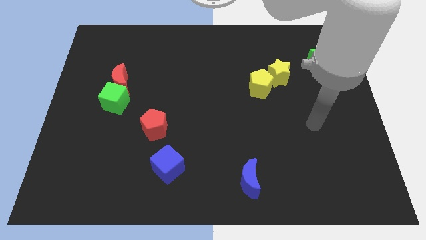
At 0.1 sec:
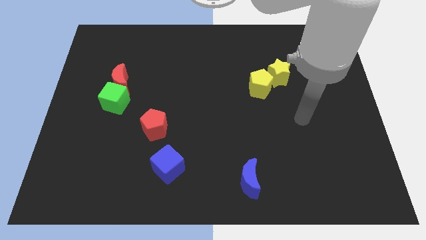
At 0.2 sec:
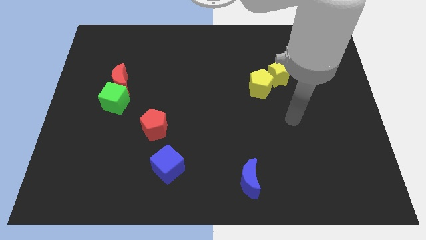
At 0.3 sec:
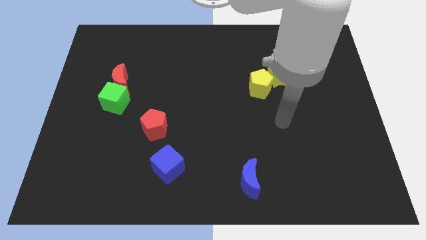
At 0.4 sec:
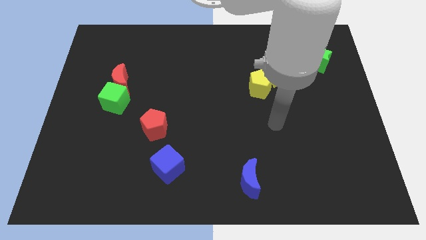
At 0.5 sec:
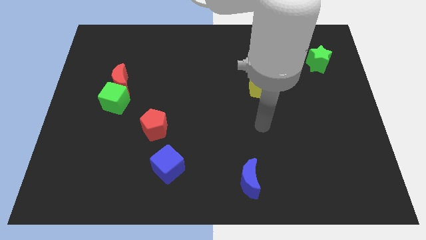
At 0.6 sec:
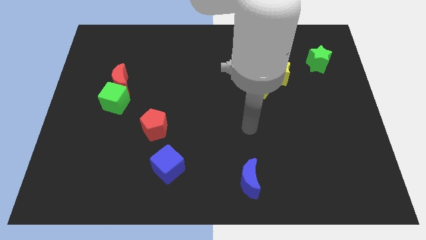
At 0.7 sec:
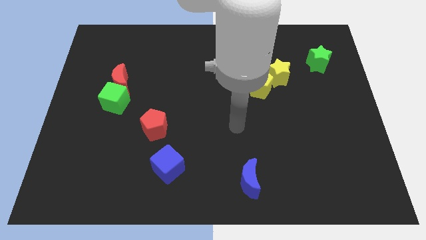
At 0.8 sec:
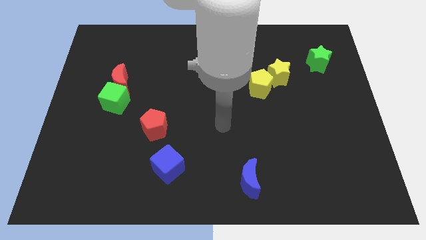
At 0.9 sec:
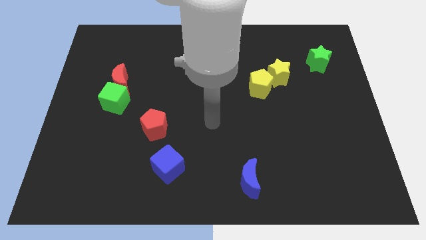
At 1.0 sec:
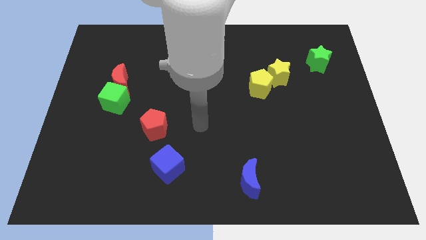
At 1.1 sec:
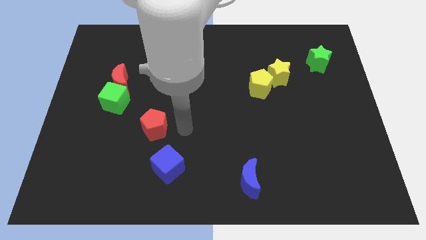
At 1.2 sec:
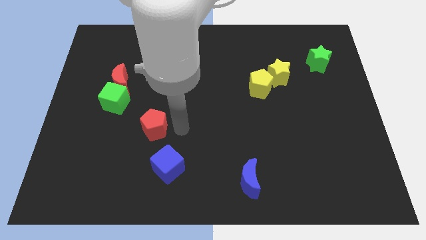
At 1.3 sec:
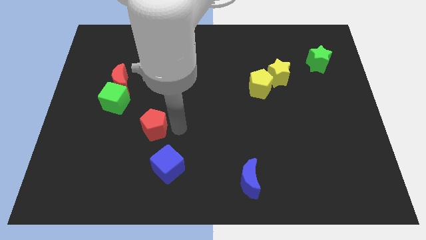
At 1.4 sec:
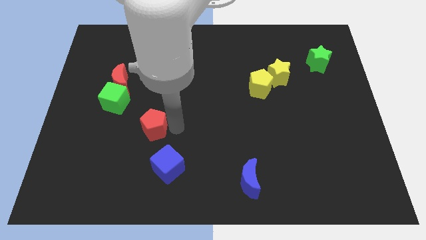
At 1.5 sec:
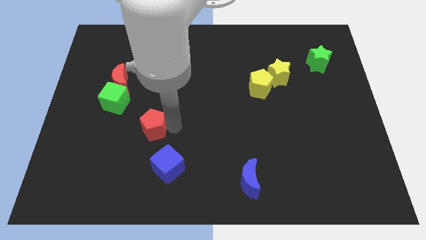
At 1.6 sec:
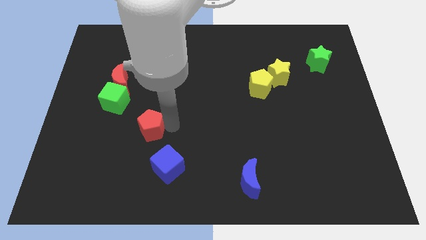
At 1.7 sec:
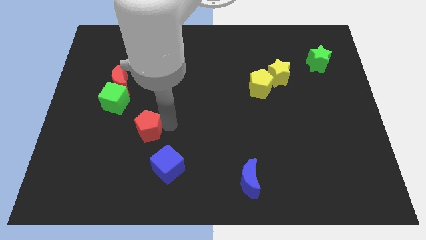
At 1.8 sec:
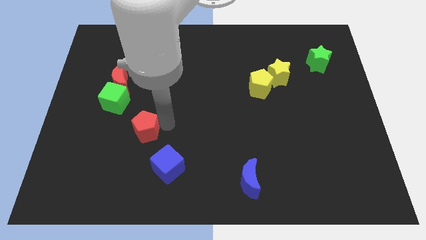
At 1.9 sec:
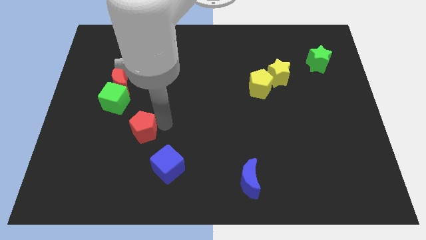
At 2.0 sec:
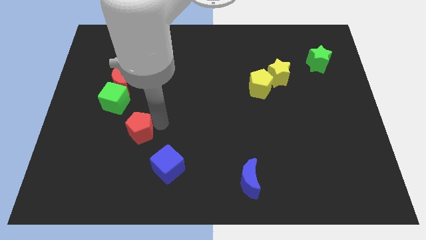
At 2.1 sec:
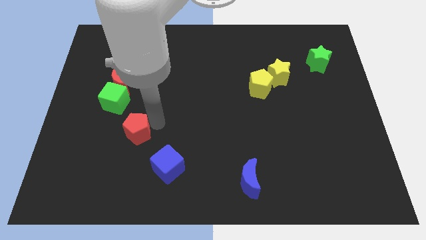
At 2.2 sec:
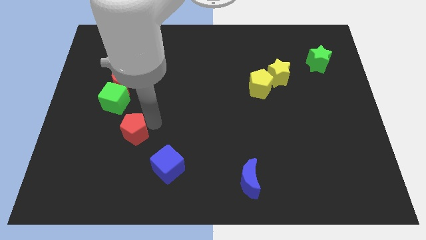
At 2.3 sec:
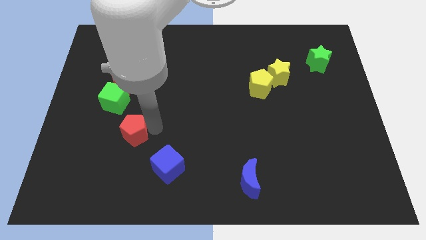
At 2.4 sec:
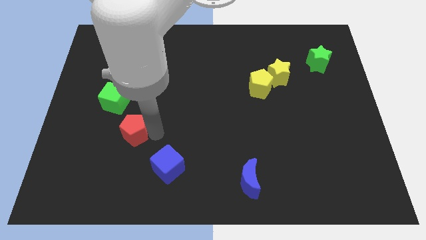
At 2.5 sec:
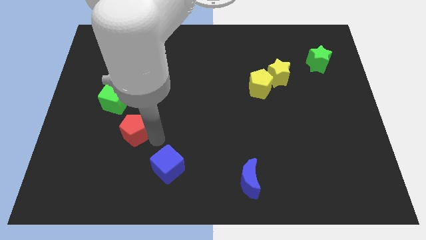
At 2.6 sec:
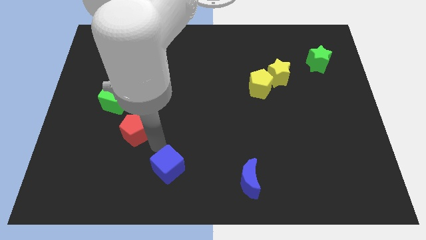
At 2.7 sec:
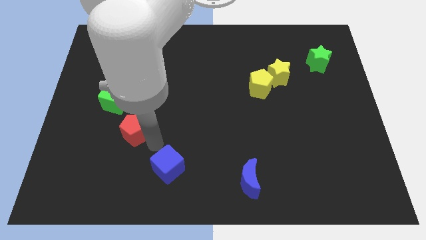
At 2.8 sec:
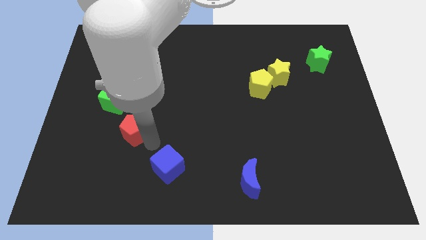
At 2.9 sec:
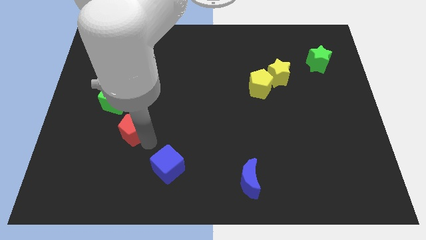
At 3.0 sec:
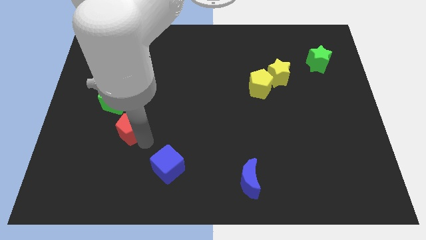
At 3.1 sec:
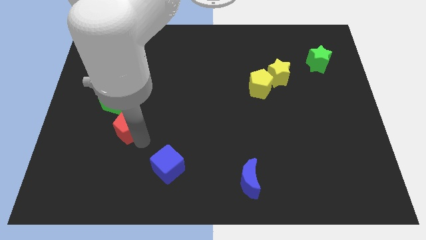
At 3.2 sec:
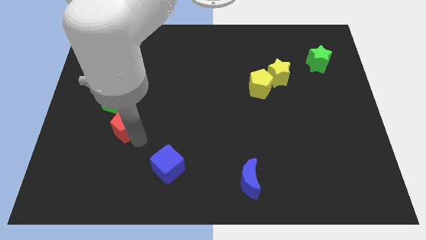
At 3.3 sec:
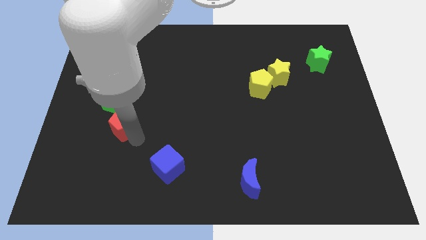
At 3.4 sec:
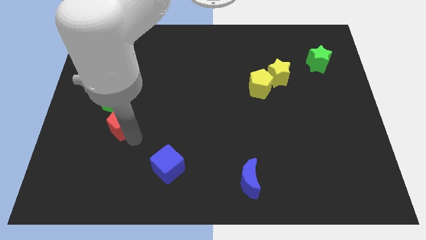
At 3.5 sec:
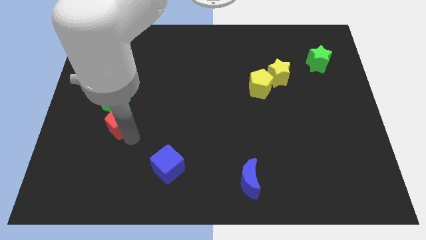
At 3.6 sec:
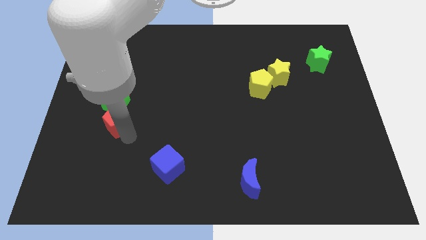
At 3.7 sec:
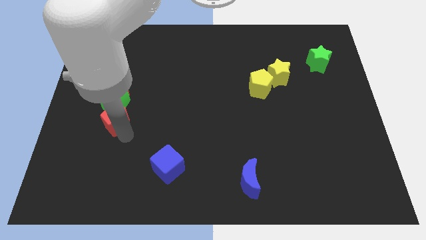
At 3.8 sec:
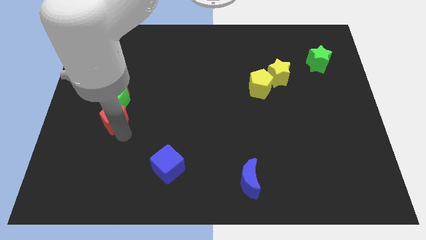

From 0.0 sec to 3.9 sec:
slightly slide the red pentagon upwards and then left

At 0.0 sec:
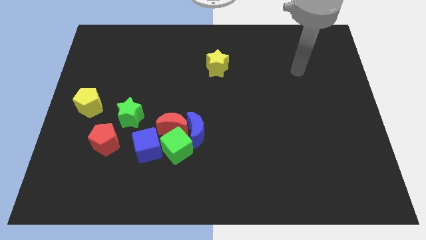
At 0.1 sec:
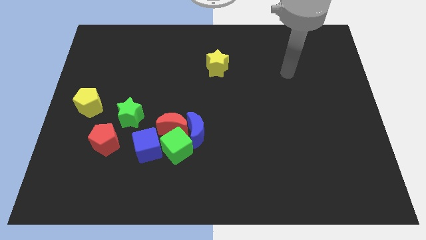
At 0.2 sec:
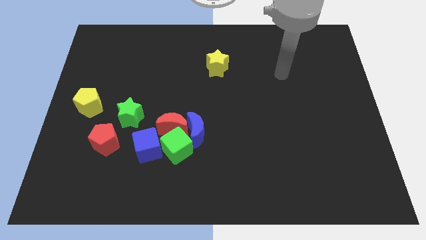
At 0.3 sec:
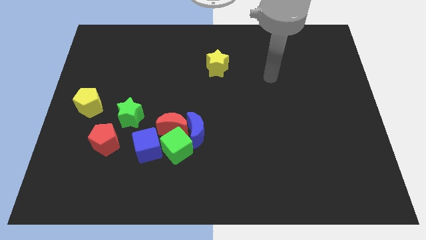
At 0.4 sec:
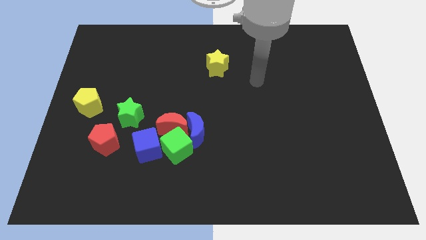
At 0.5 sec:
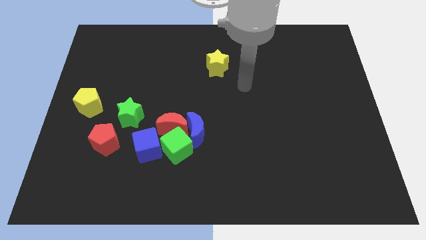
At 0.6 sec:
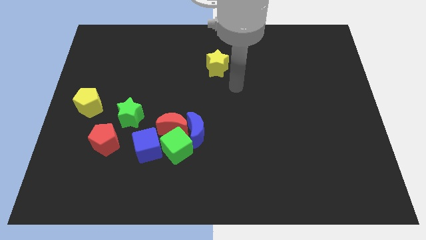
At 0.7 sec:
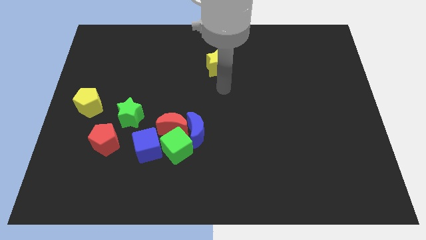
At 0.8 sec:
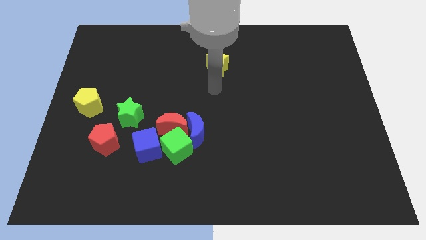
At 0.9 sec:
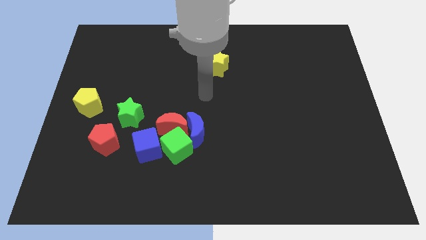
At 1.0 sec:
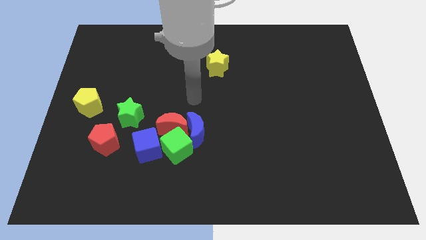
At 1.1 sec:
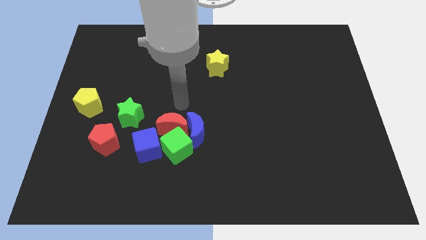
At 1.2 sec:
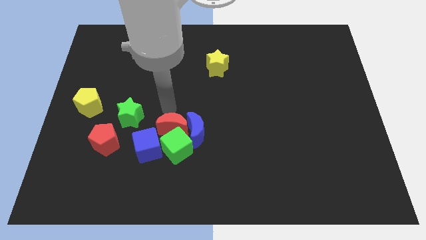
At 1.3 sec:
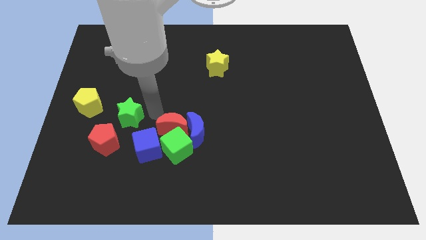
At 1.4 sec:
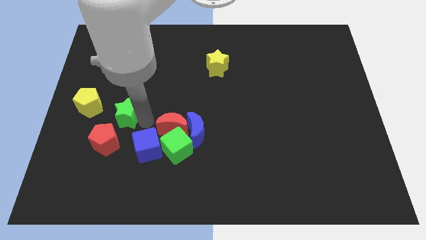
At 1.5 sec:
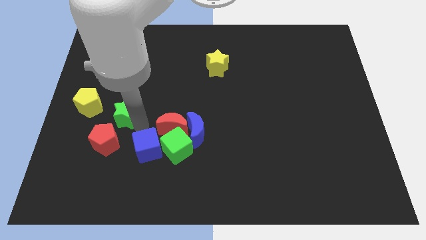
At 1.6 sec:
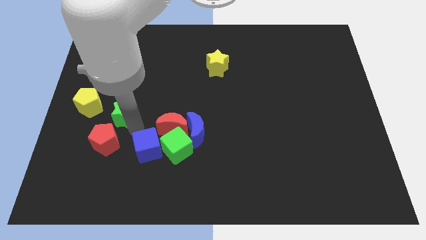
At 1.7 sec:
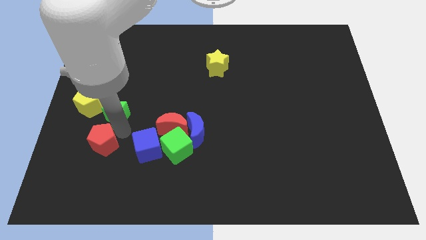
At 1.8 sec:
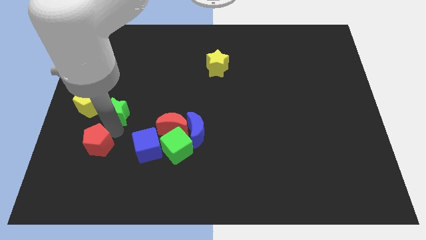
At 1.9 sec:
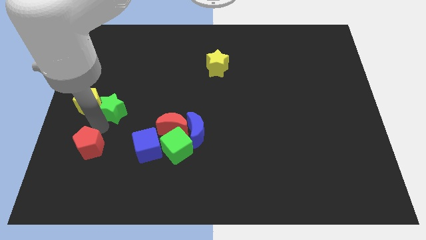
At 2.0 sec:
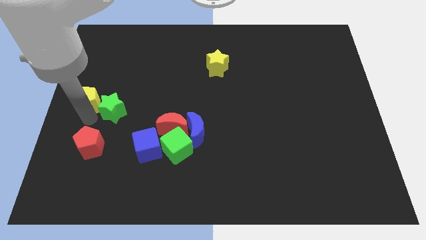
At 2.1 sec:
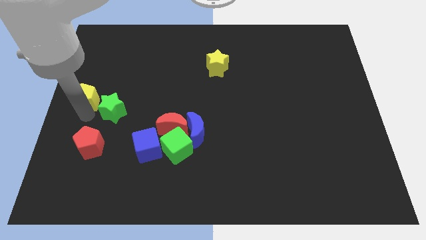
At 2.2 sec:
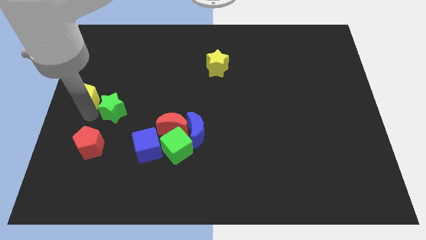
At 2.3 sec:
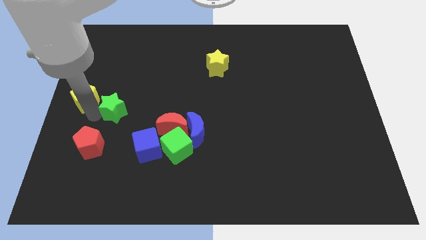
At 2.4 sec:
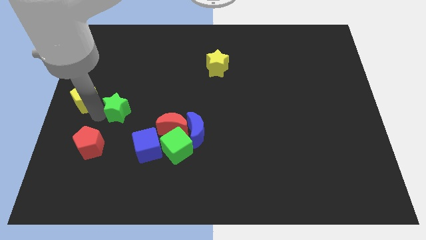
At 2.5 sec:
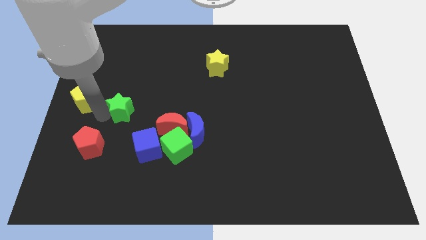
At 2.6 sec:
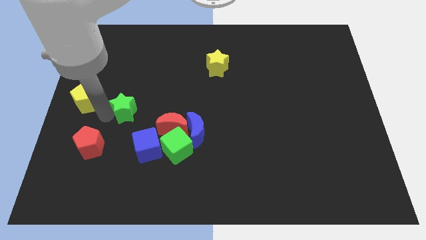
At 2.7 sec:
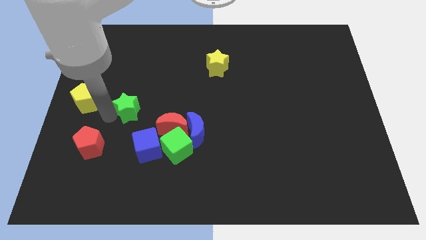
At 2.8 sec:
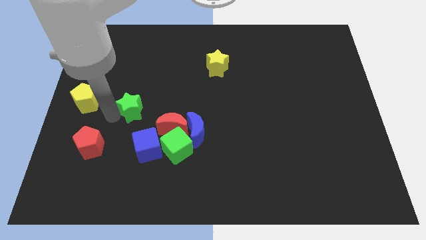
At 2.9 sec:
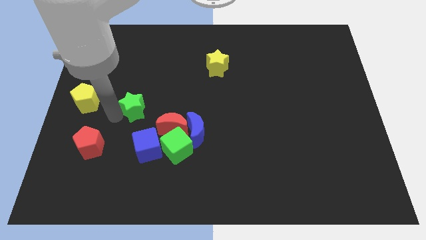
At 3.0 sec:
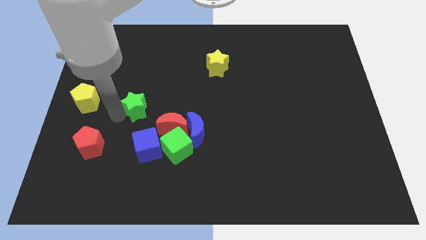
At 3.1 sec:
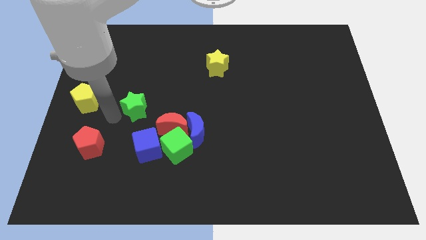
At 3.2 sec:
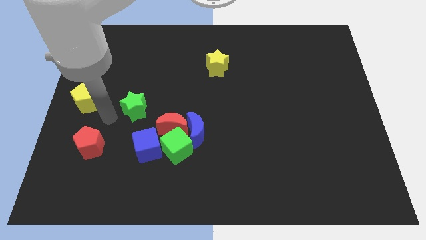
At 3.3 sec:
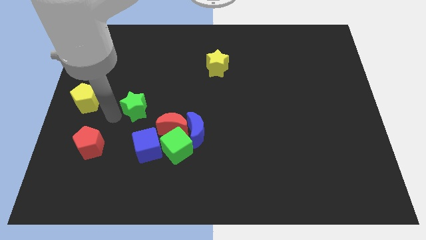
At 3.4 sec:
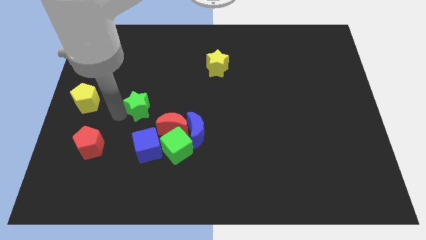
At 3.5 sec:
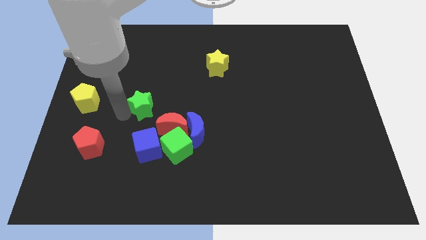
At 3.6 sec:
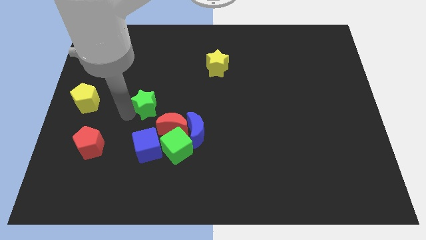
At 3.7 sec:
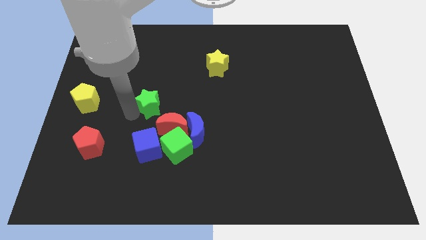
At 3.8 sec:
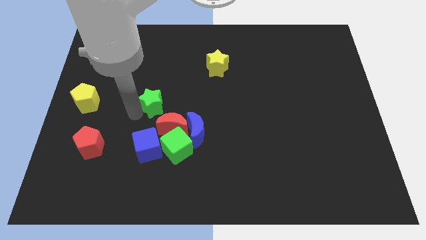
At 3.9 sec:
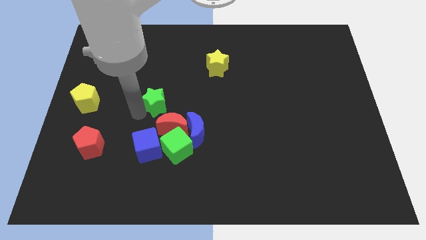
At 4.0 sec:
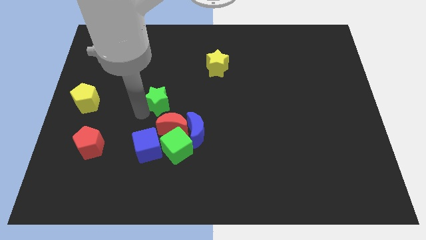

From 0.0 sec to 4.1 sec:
slide the green star a bit upwards and right diagonally
